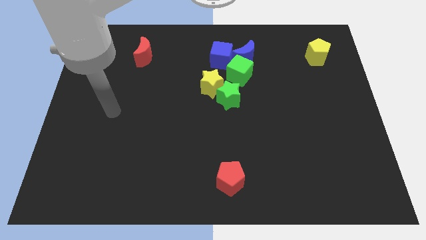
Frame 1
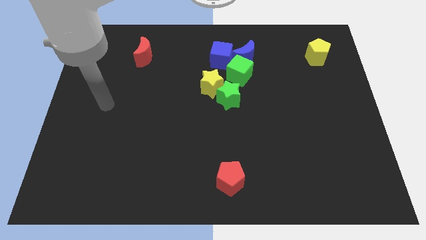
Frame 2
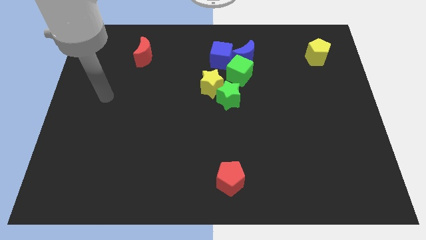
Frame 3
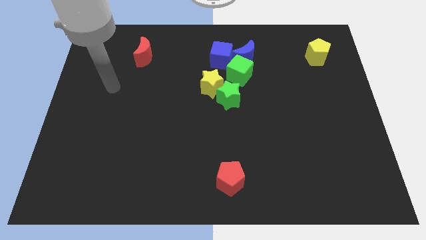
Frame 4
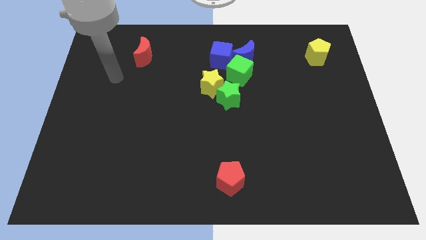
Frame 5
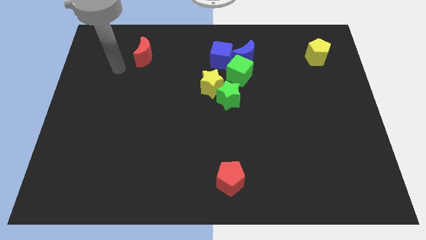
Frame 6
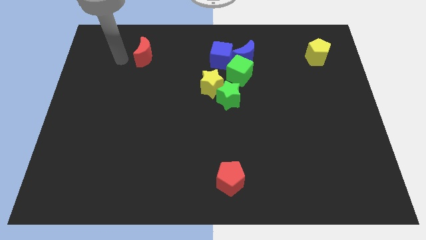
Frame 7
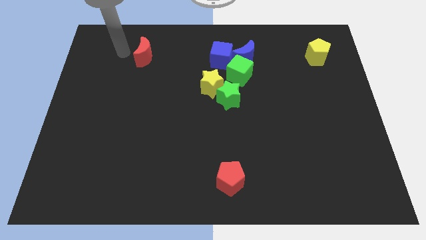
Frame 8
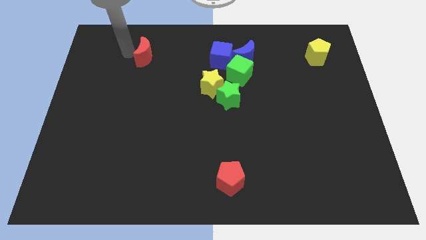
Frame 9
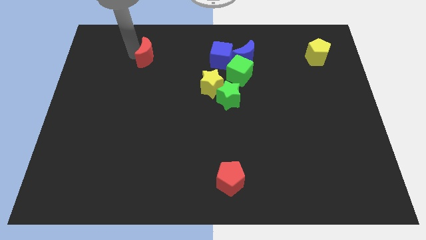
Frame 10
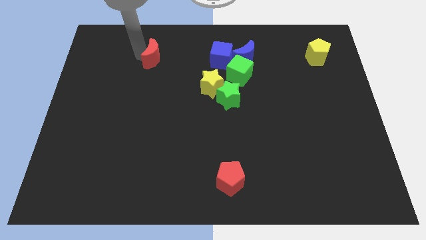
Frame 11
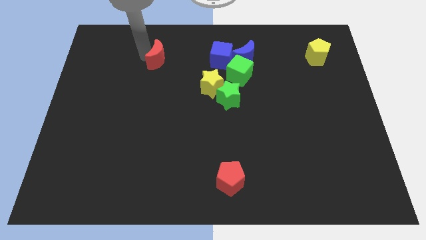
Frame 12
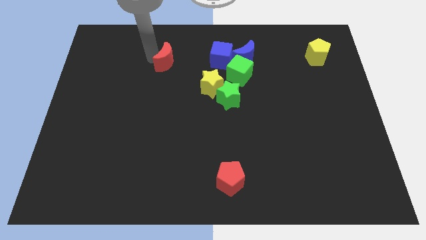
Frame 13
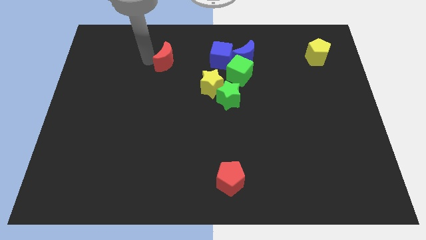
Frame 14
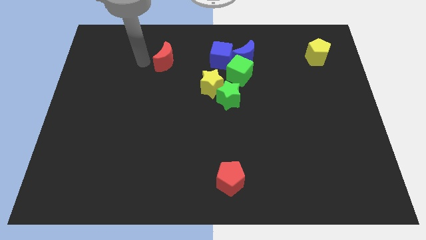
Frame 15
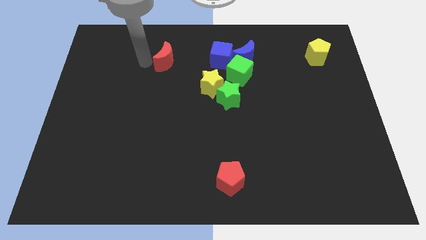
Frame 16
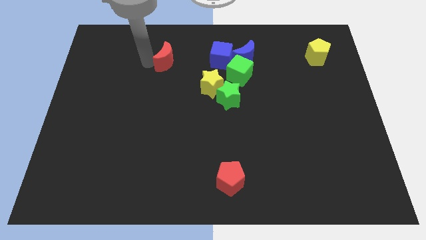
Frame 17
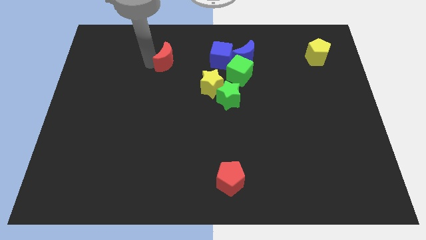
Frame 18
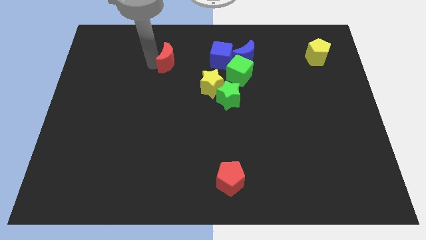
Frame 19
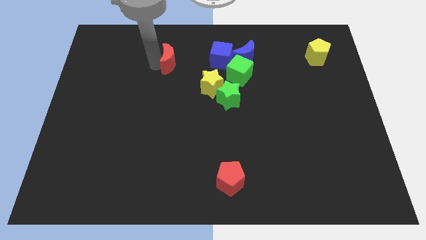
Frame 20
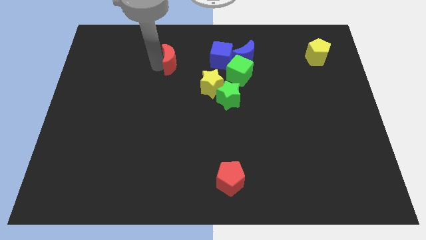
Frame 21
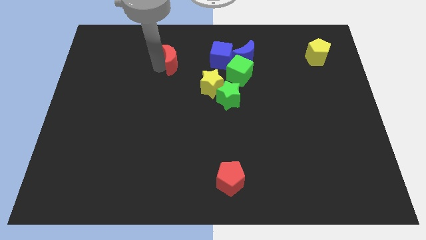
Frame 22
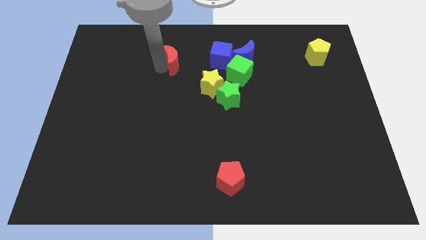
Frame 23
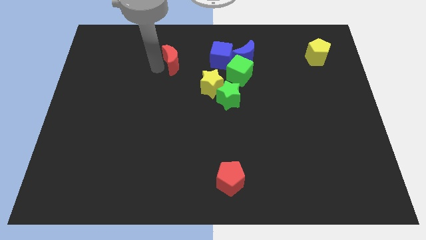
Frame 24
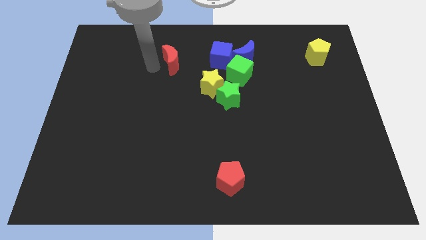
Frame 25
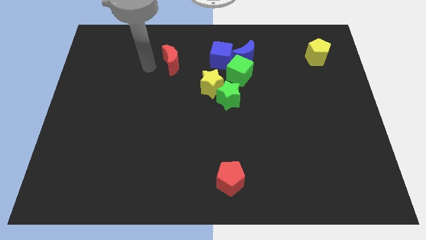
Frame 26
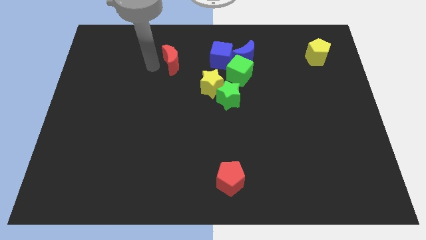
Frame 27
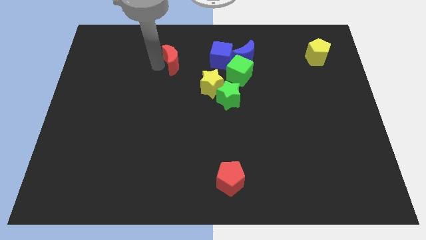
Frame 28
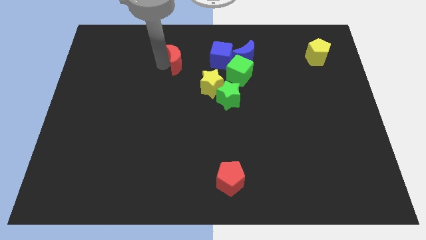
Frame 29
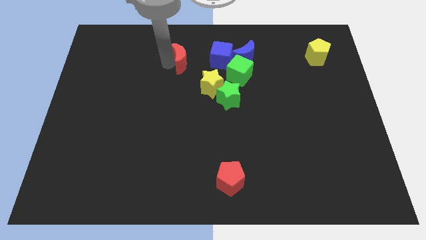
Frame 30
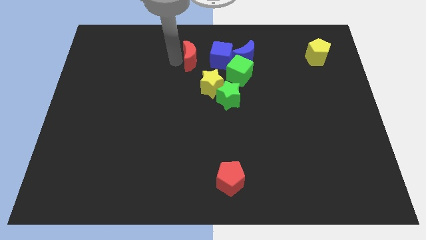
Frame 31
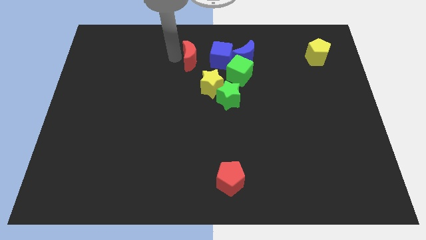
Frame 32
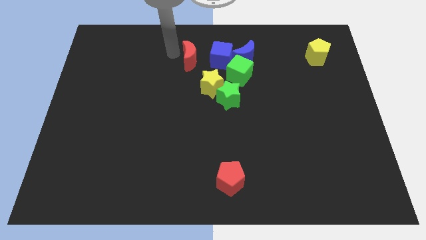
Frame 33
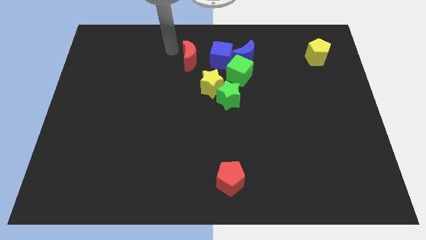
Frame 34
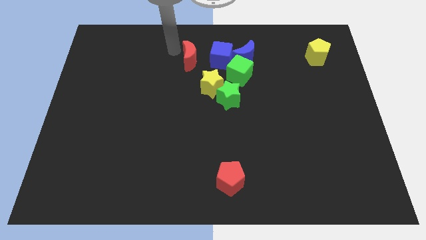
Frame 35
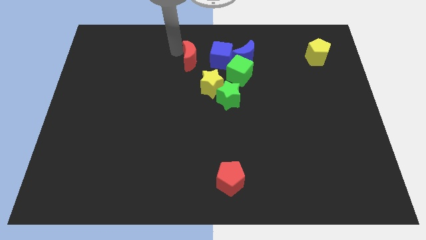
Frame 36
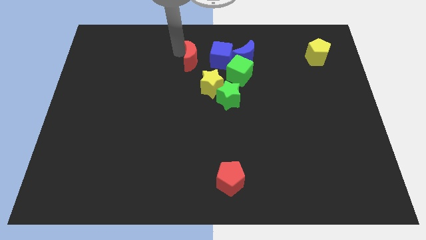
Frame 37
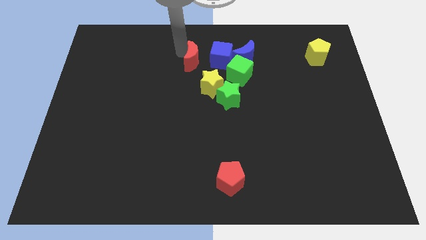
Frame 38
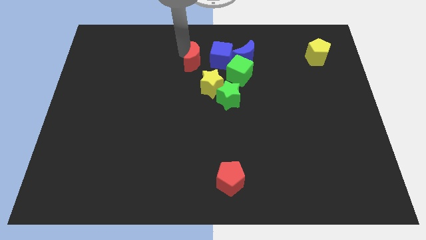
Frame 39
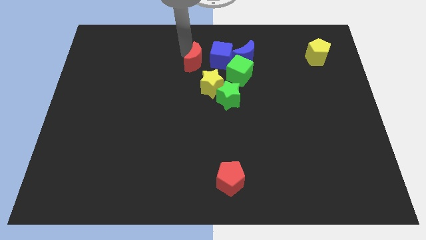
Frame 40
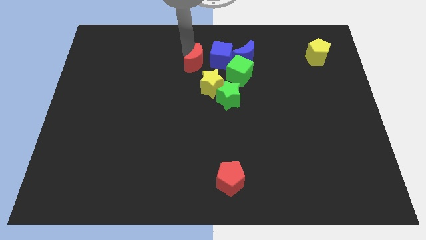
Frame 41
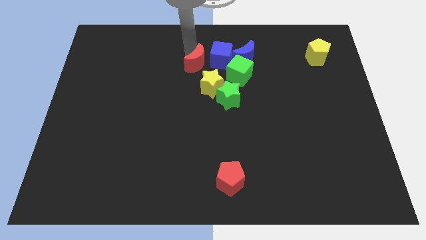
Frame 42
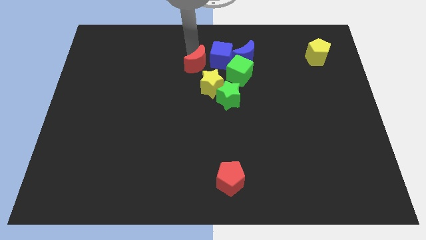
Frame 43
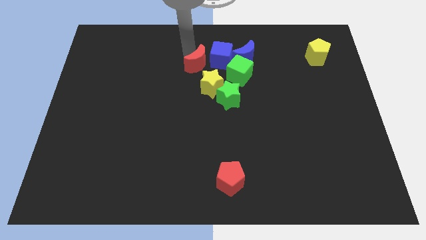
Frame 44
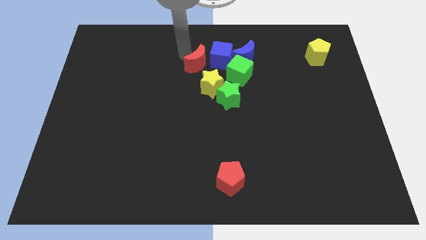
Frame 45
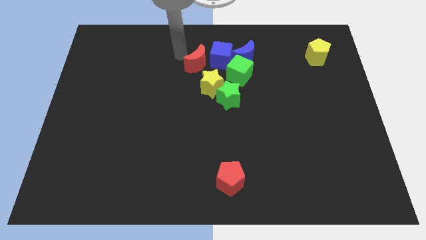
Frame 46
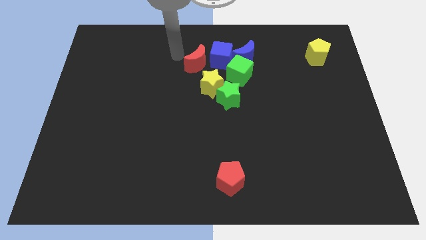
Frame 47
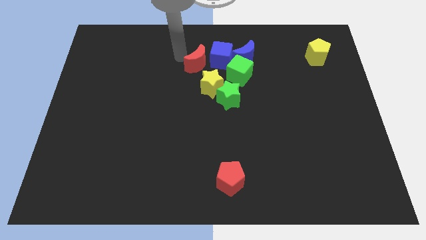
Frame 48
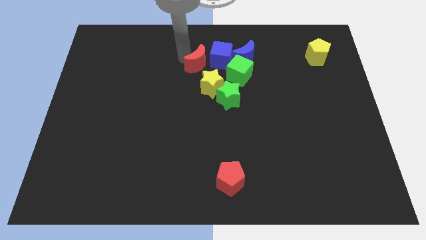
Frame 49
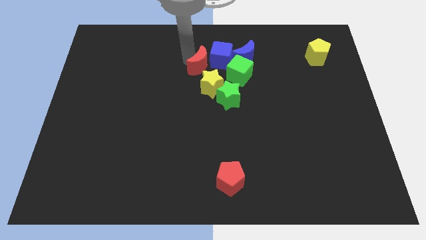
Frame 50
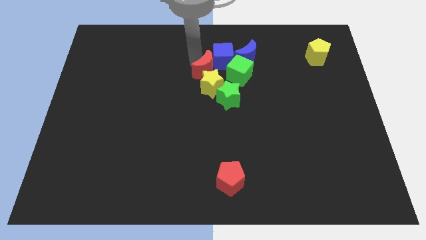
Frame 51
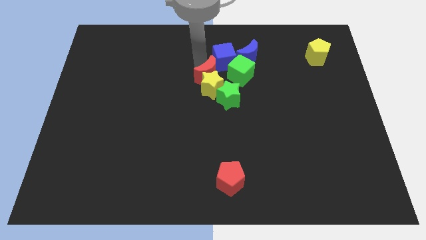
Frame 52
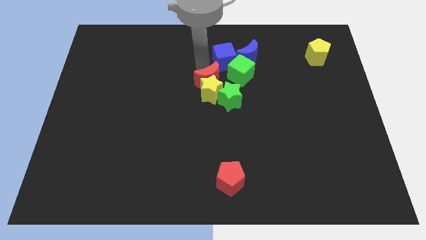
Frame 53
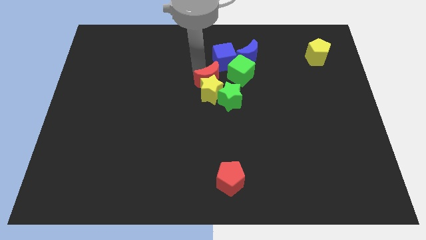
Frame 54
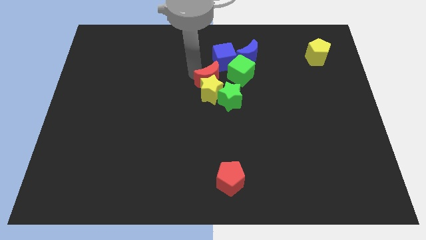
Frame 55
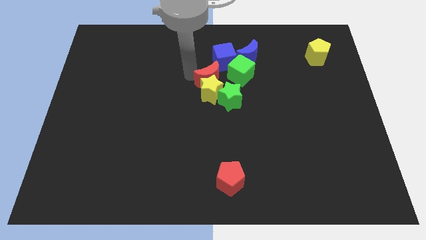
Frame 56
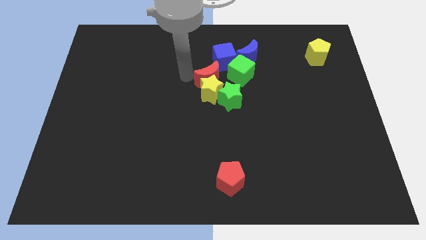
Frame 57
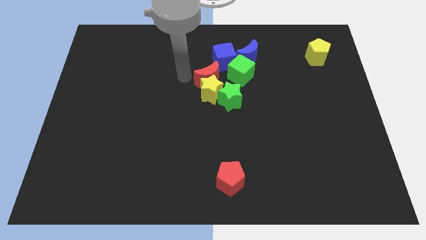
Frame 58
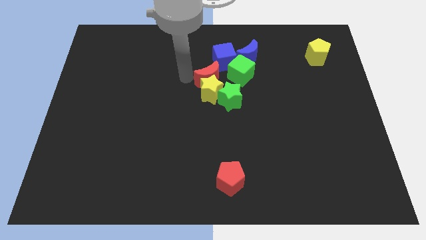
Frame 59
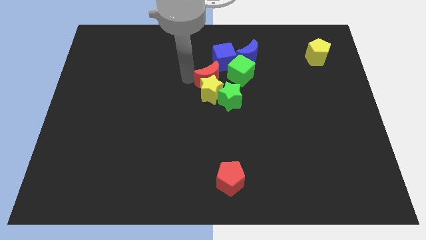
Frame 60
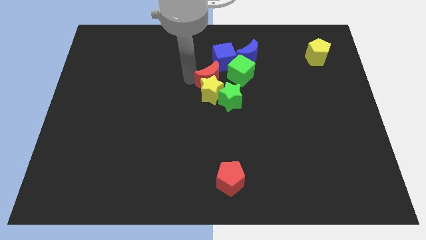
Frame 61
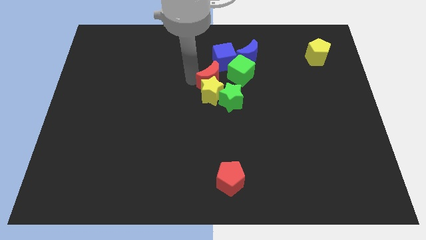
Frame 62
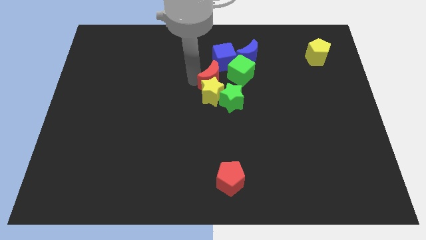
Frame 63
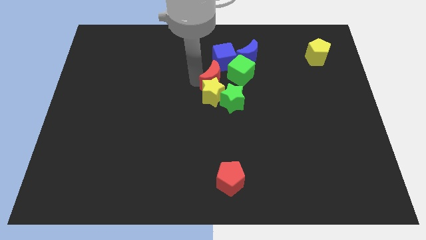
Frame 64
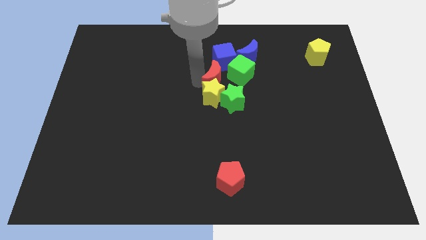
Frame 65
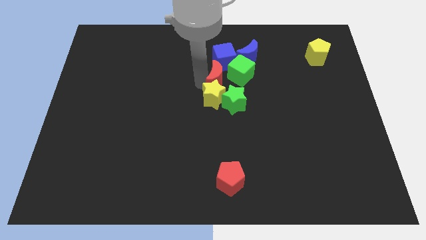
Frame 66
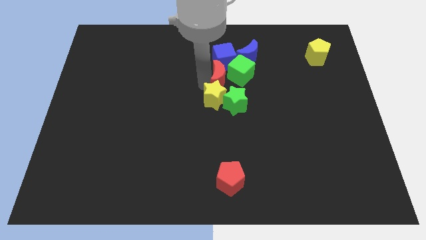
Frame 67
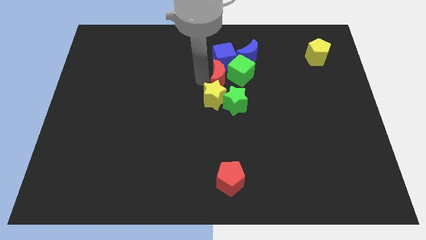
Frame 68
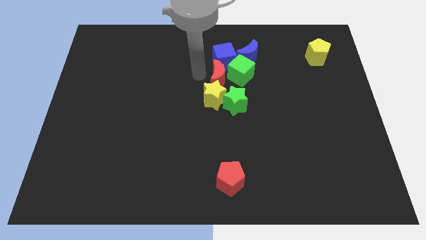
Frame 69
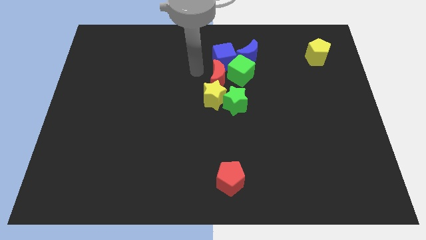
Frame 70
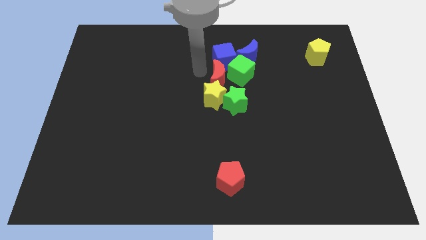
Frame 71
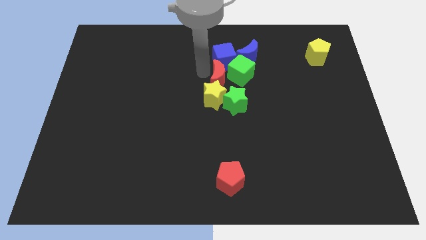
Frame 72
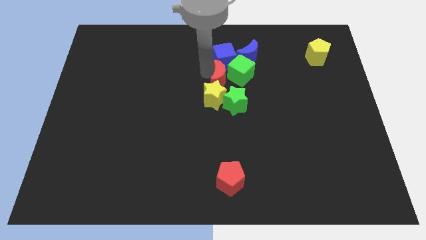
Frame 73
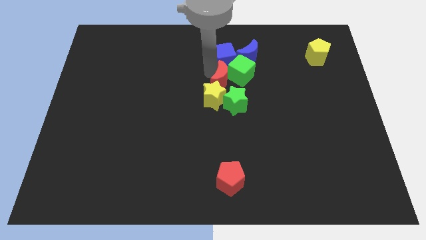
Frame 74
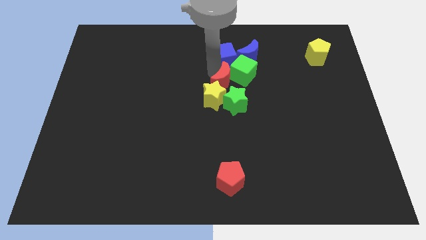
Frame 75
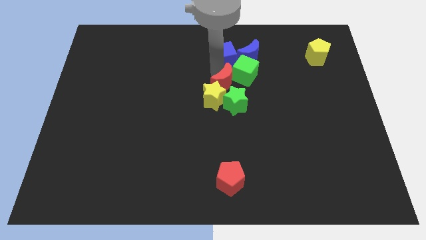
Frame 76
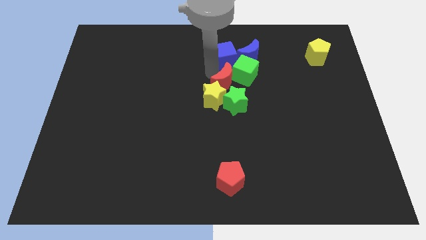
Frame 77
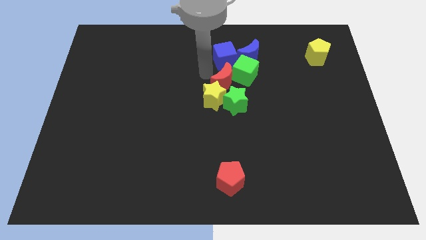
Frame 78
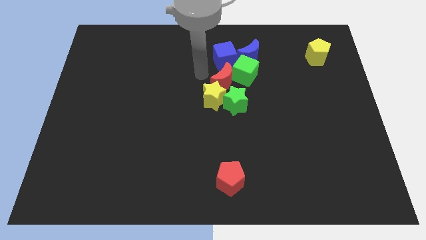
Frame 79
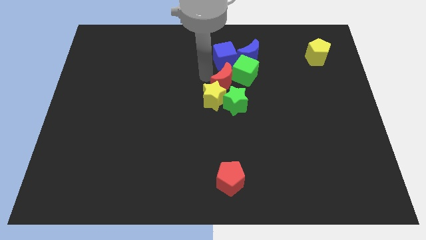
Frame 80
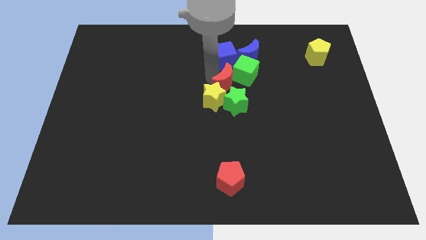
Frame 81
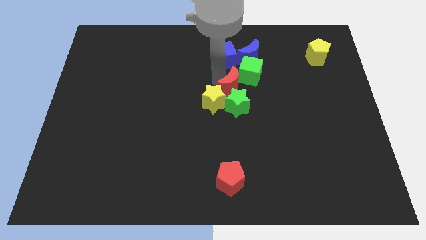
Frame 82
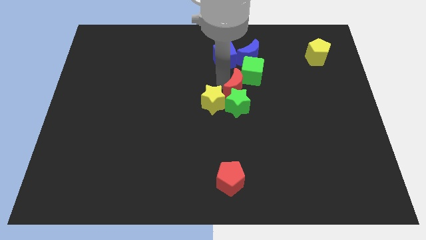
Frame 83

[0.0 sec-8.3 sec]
move the red moon diagonally up and to the right of the green star
